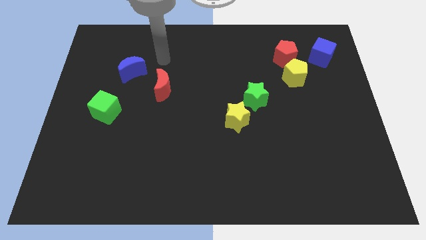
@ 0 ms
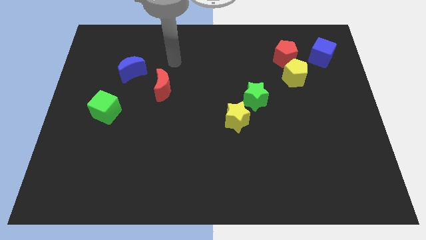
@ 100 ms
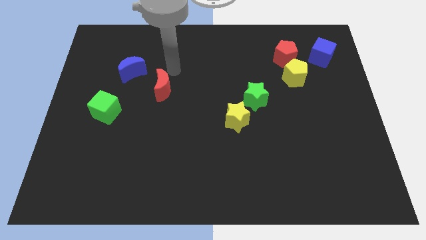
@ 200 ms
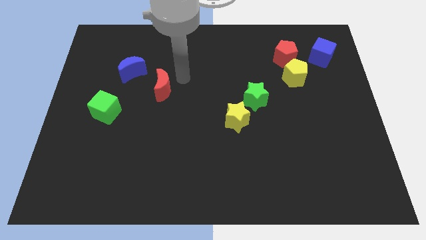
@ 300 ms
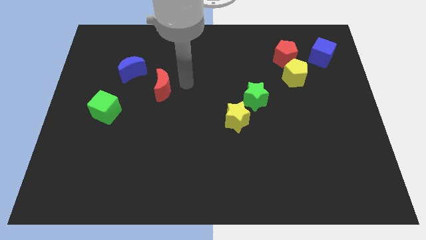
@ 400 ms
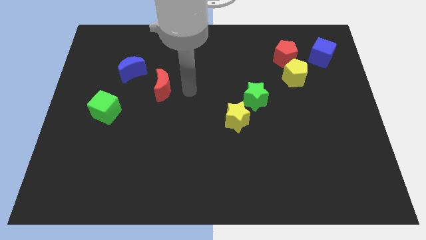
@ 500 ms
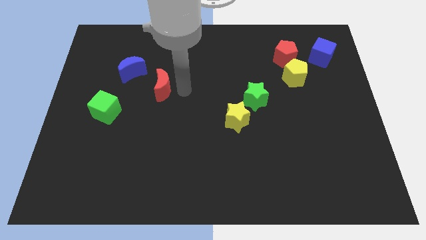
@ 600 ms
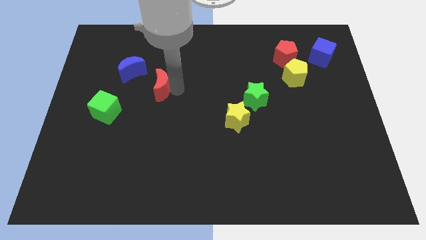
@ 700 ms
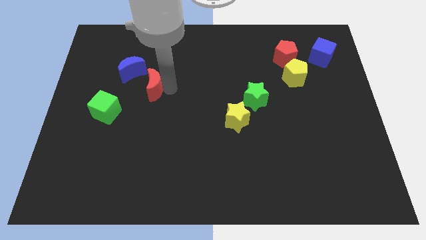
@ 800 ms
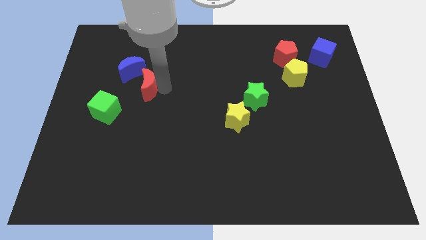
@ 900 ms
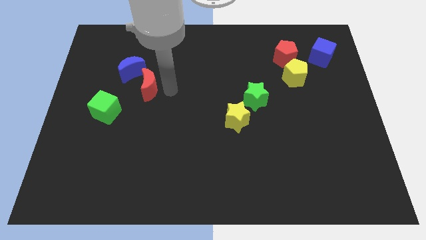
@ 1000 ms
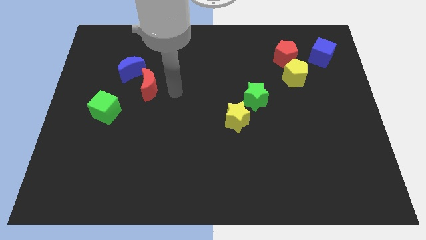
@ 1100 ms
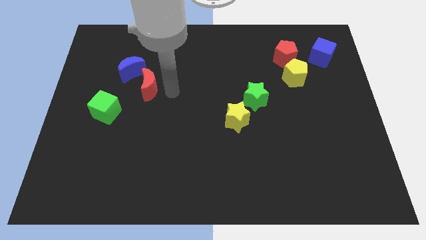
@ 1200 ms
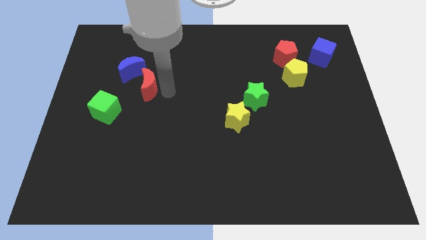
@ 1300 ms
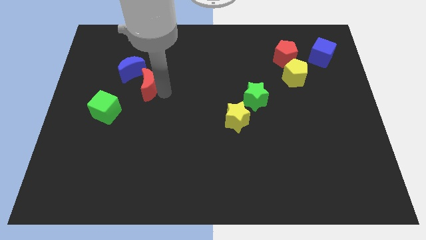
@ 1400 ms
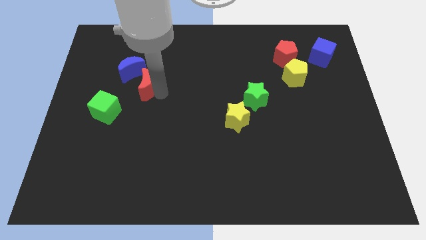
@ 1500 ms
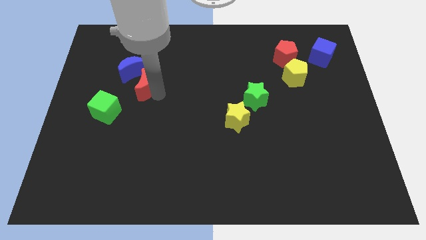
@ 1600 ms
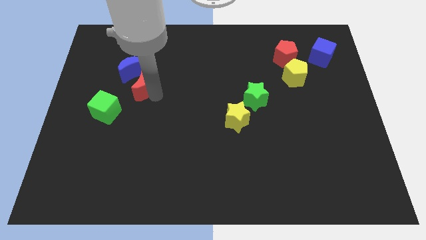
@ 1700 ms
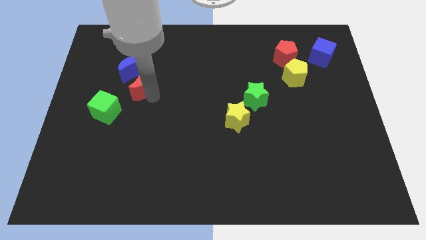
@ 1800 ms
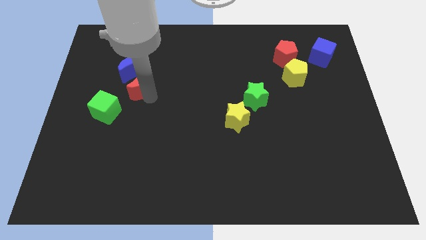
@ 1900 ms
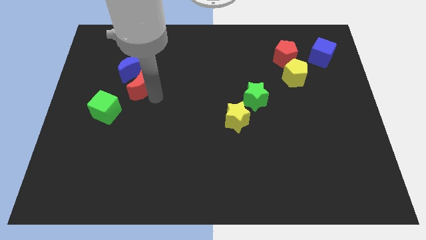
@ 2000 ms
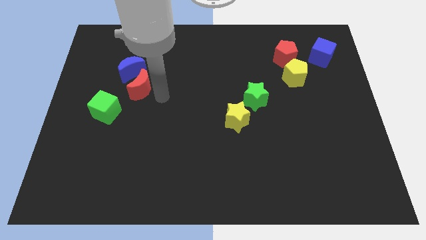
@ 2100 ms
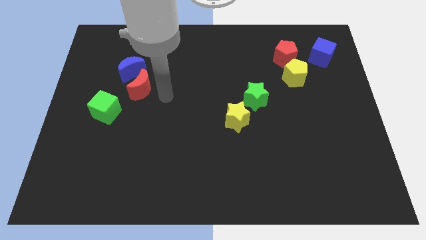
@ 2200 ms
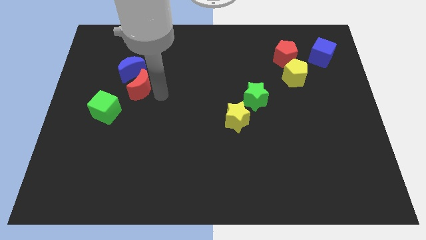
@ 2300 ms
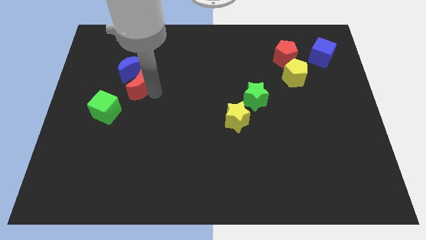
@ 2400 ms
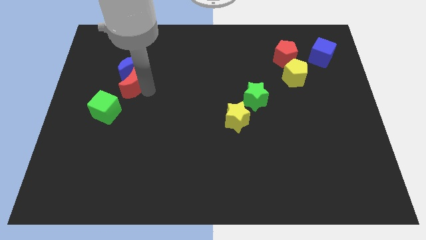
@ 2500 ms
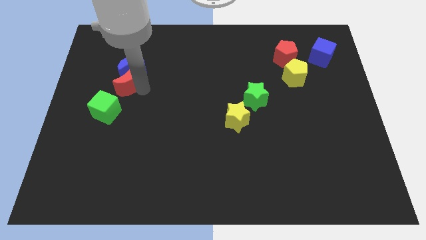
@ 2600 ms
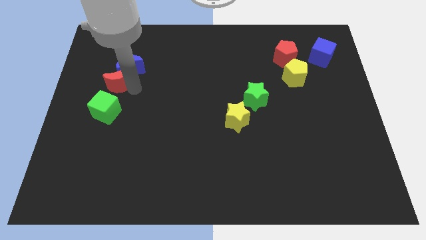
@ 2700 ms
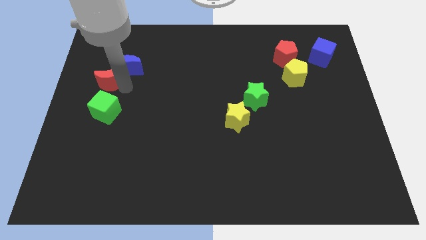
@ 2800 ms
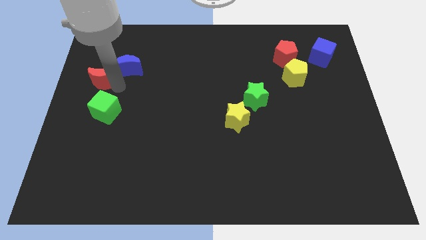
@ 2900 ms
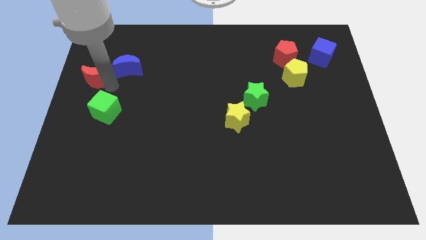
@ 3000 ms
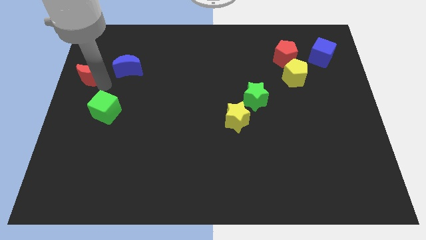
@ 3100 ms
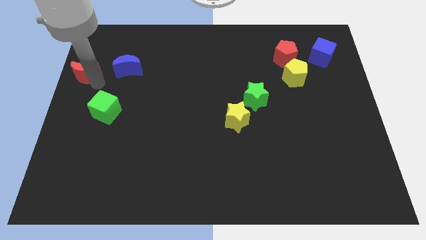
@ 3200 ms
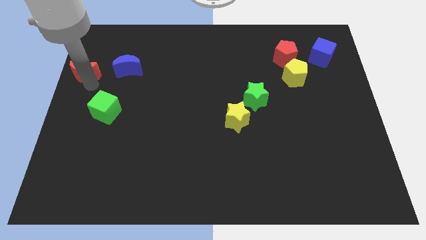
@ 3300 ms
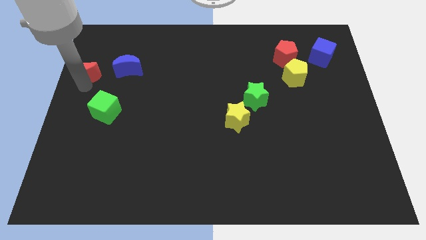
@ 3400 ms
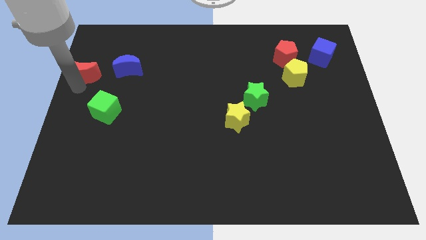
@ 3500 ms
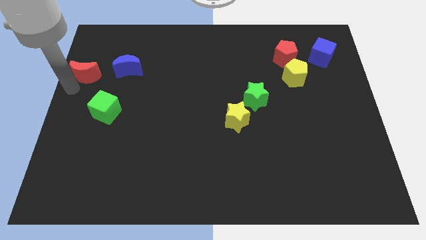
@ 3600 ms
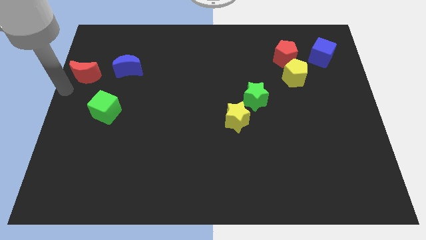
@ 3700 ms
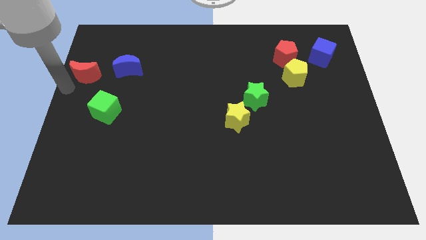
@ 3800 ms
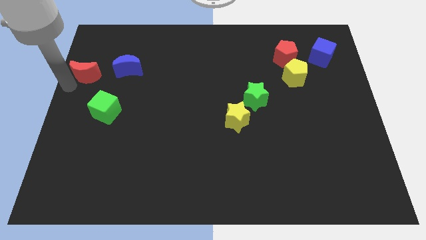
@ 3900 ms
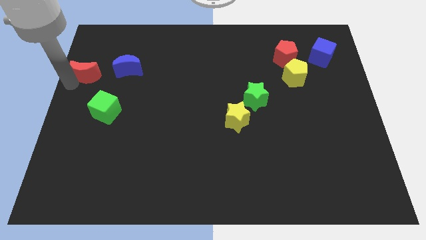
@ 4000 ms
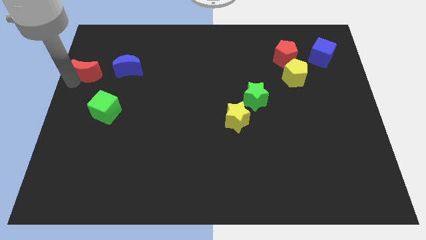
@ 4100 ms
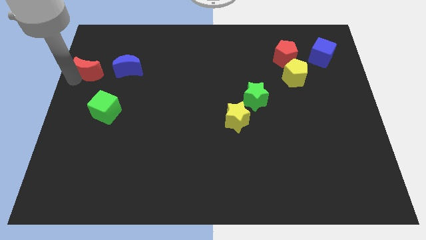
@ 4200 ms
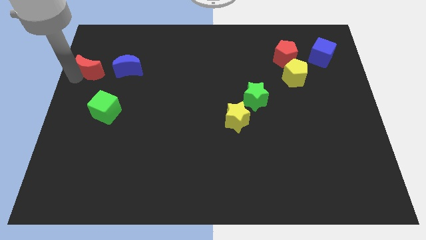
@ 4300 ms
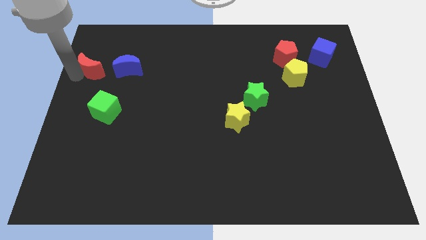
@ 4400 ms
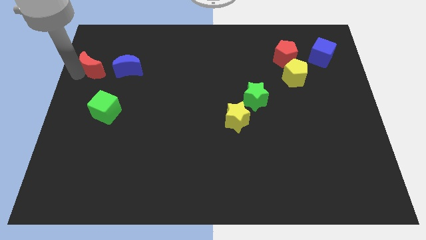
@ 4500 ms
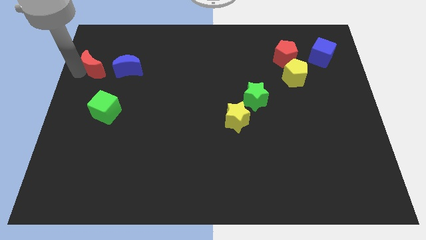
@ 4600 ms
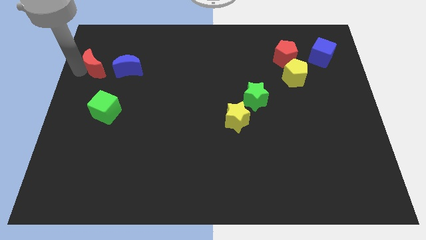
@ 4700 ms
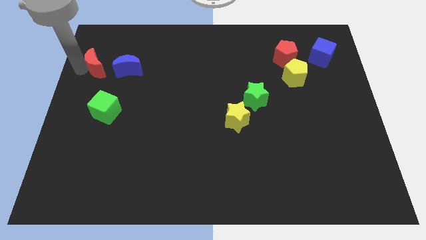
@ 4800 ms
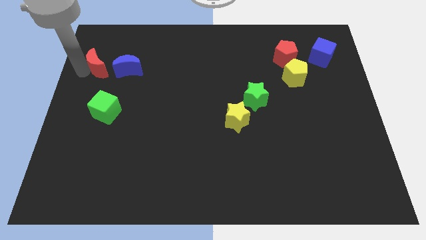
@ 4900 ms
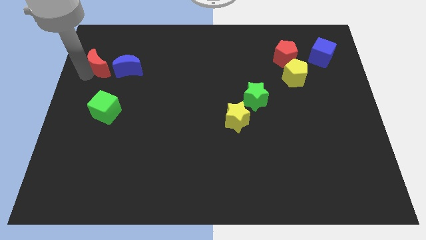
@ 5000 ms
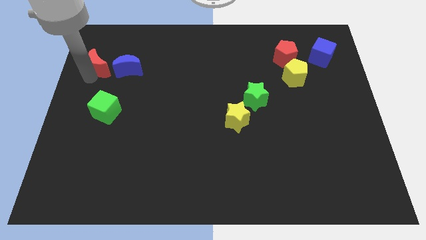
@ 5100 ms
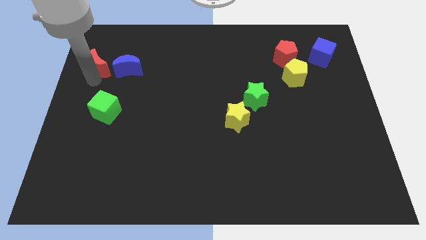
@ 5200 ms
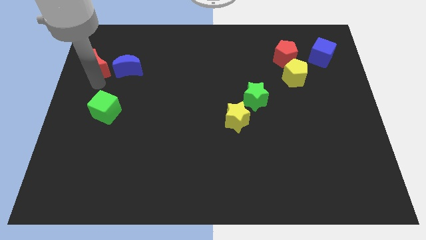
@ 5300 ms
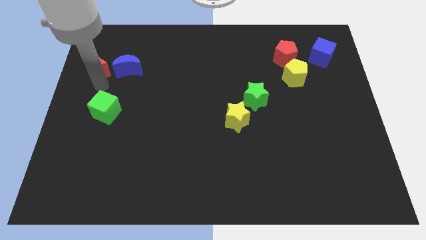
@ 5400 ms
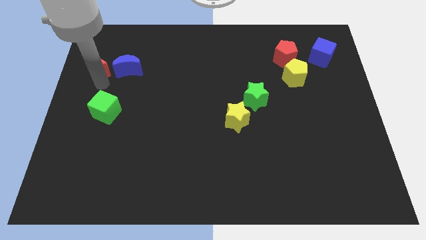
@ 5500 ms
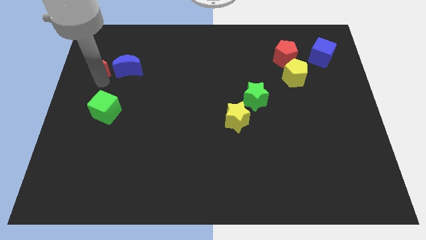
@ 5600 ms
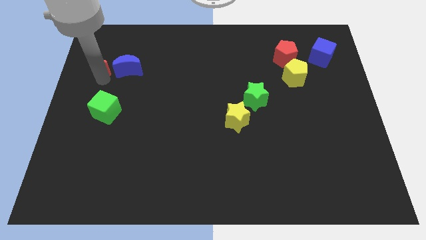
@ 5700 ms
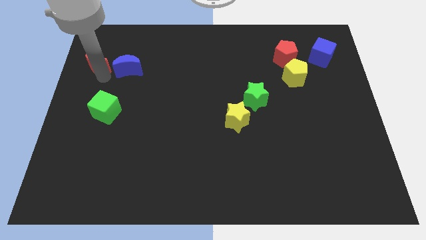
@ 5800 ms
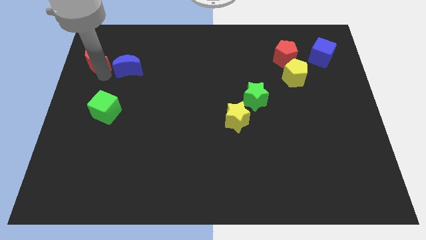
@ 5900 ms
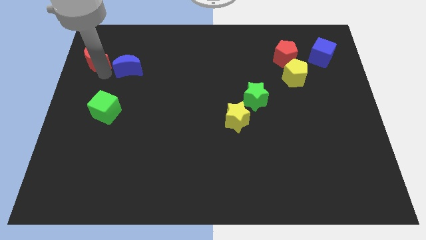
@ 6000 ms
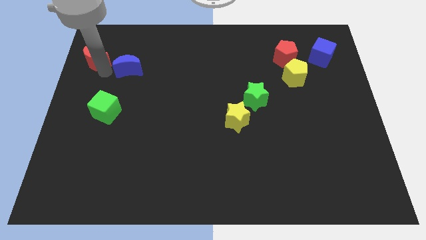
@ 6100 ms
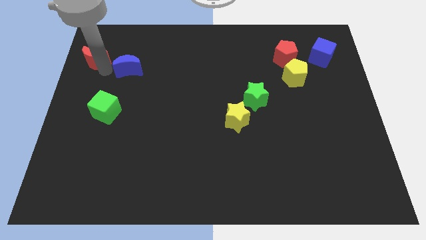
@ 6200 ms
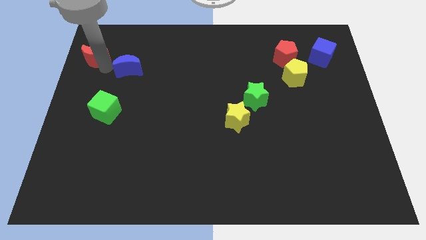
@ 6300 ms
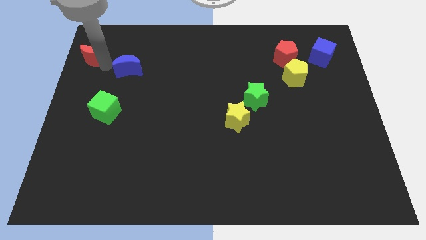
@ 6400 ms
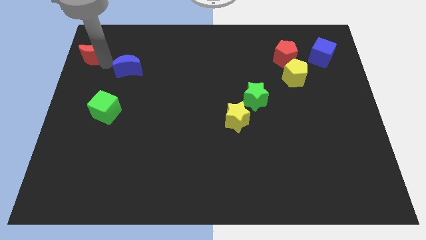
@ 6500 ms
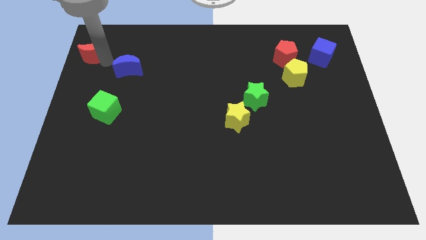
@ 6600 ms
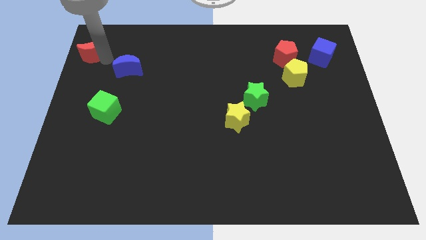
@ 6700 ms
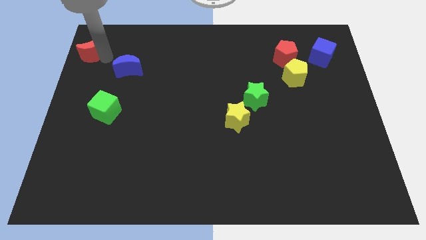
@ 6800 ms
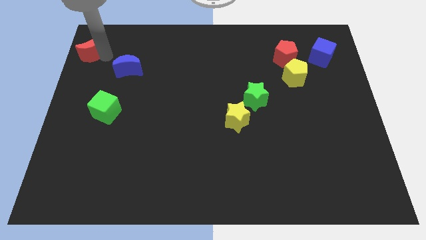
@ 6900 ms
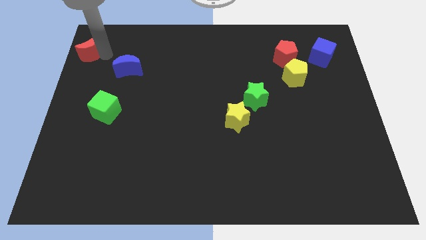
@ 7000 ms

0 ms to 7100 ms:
put the red moon to the top left of the board
